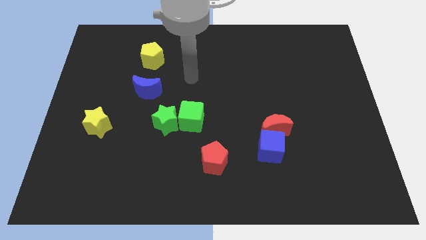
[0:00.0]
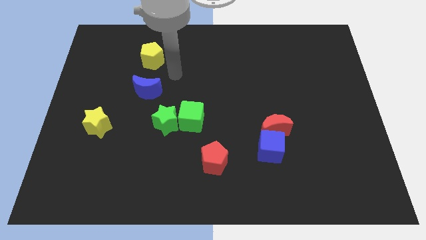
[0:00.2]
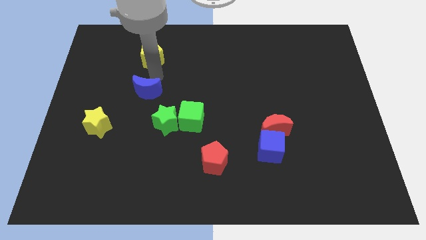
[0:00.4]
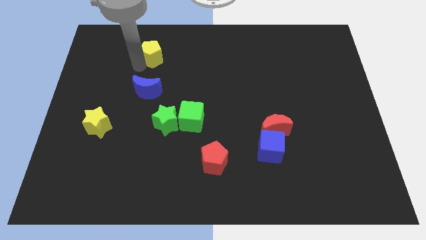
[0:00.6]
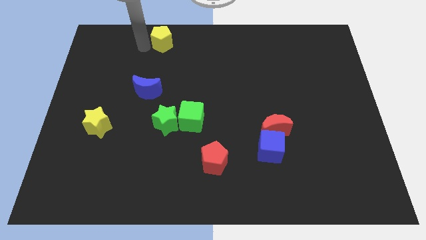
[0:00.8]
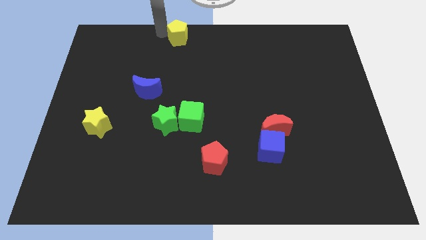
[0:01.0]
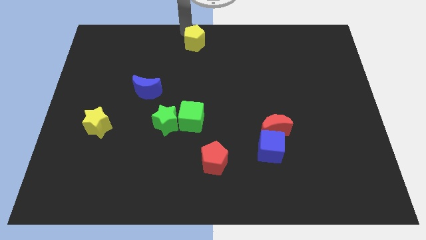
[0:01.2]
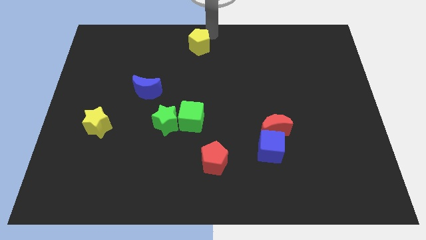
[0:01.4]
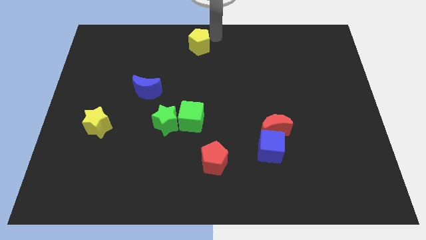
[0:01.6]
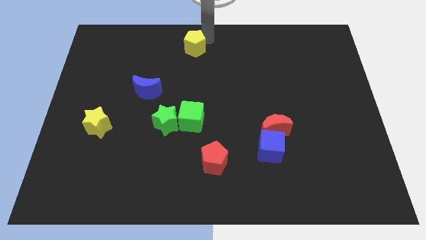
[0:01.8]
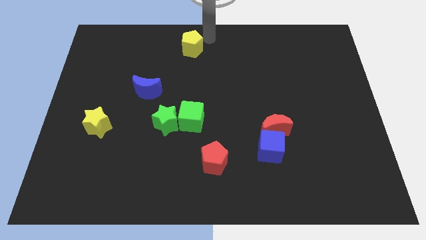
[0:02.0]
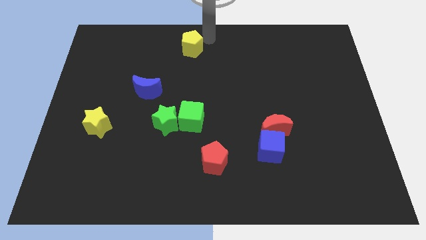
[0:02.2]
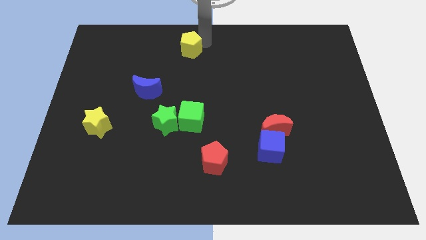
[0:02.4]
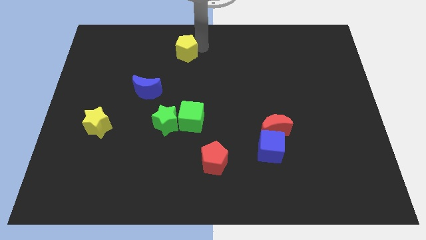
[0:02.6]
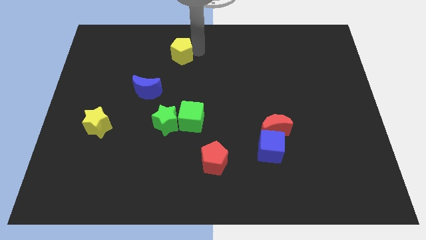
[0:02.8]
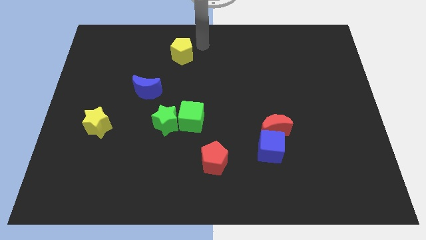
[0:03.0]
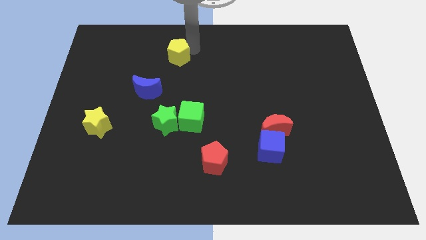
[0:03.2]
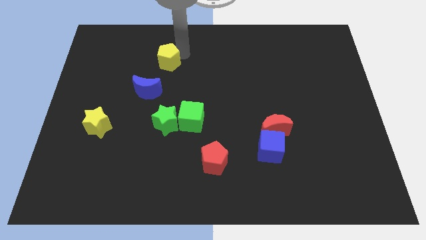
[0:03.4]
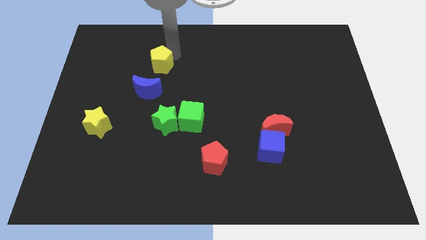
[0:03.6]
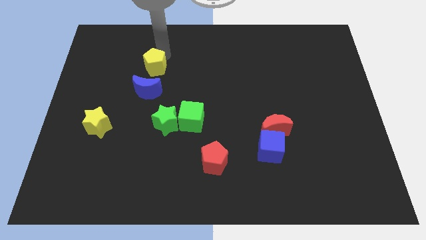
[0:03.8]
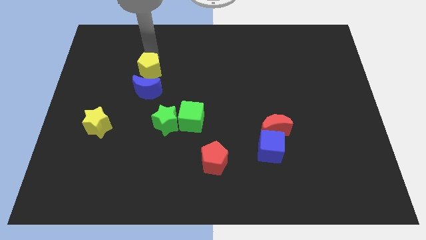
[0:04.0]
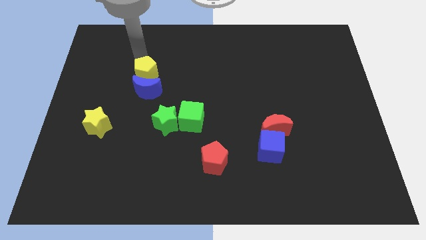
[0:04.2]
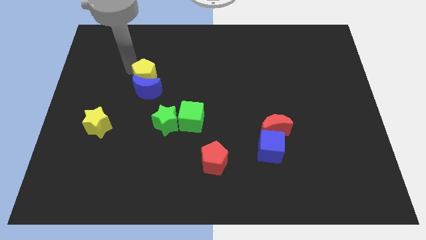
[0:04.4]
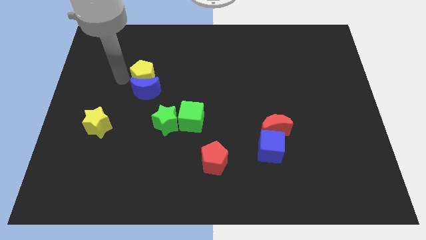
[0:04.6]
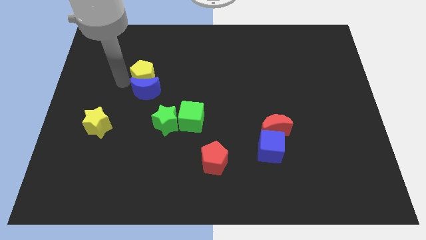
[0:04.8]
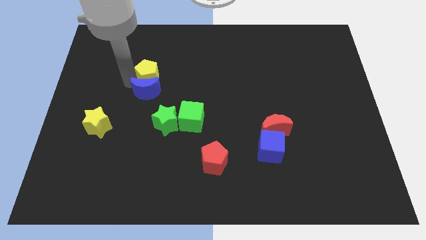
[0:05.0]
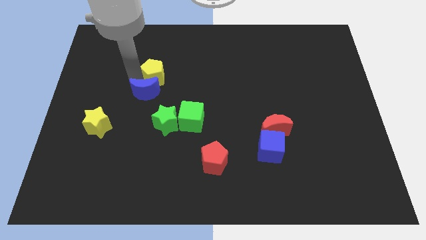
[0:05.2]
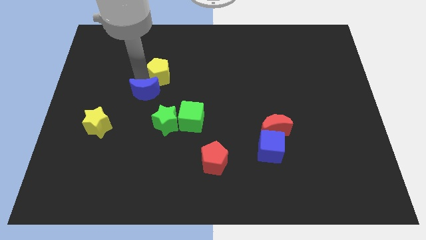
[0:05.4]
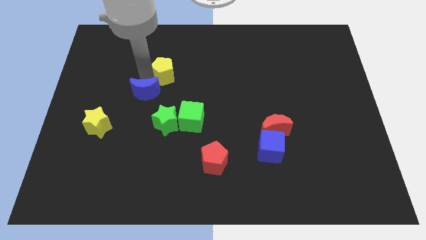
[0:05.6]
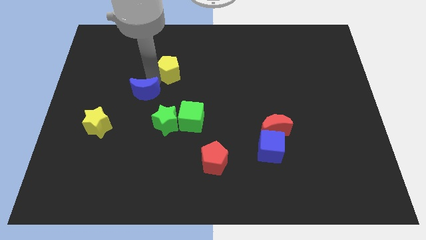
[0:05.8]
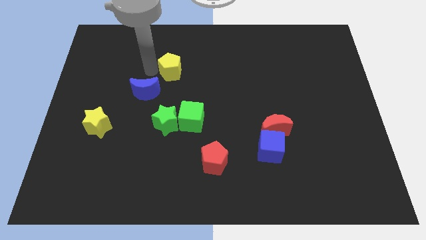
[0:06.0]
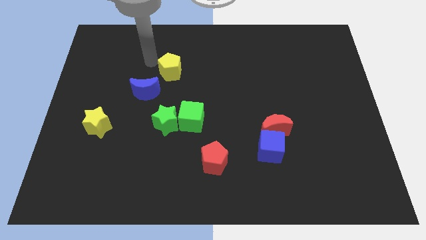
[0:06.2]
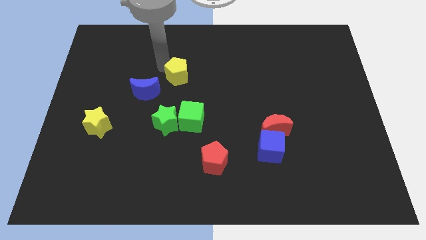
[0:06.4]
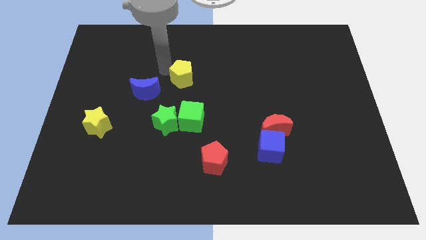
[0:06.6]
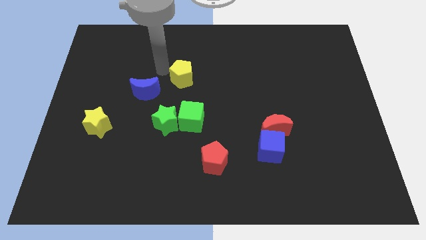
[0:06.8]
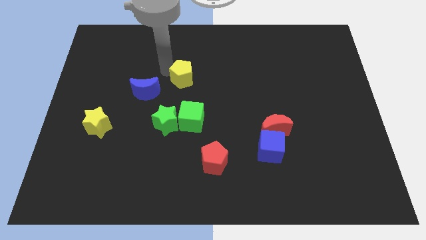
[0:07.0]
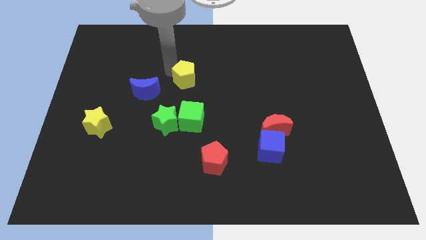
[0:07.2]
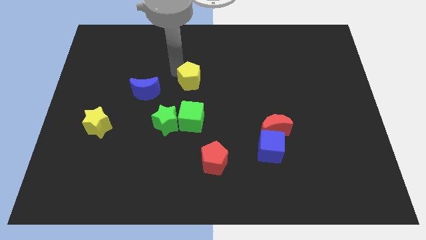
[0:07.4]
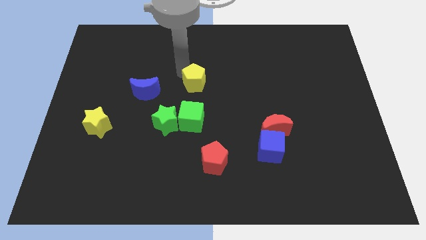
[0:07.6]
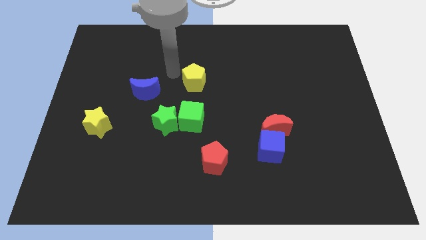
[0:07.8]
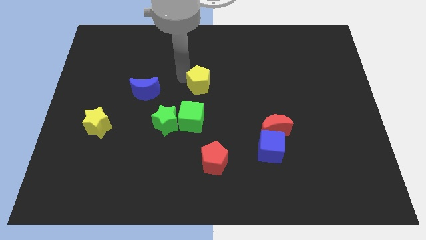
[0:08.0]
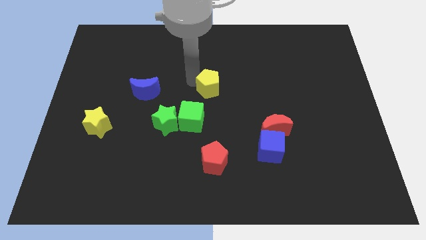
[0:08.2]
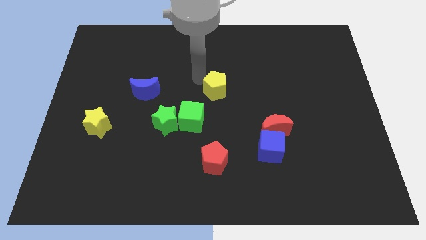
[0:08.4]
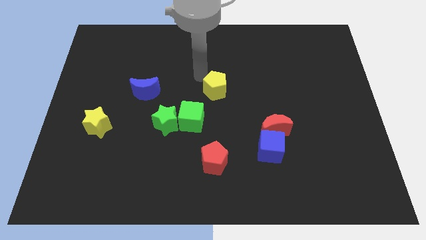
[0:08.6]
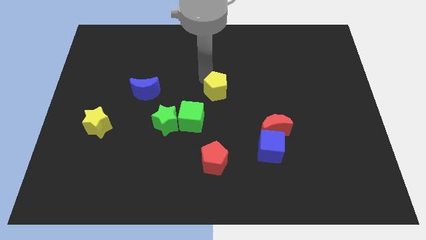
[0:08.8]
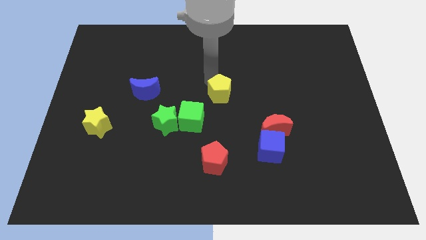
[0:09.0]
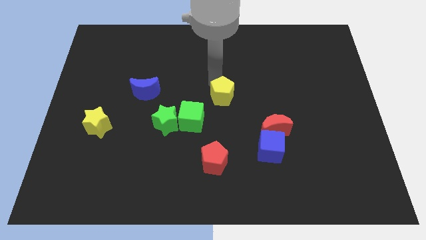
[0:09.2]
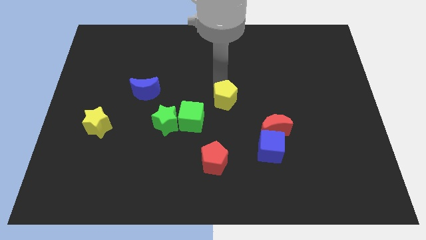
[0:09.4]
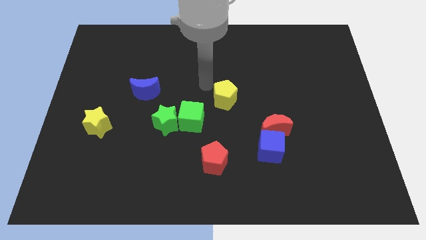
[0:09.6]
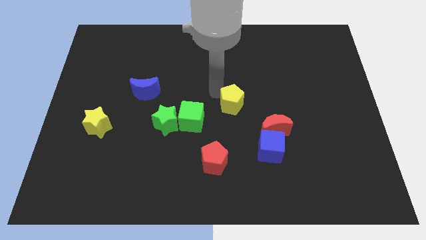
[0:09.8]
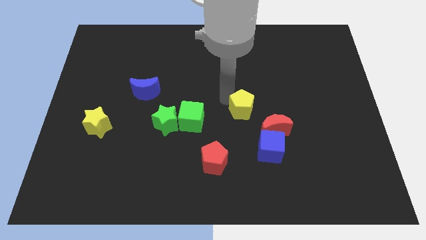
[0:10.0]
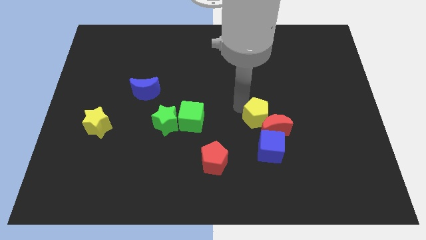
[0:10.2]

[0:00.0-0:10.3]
slide the yellow pentagon next to the red moon

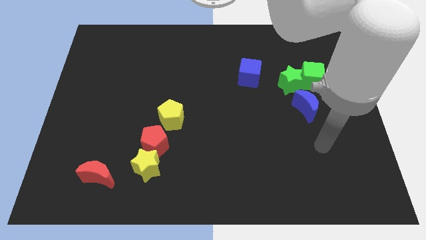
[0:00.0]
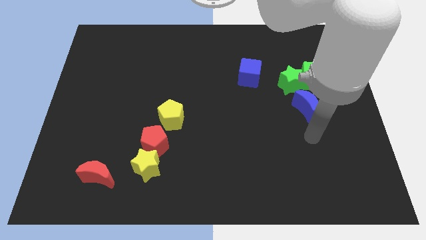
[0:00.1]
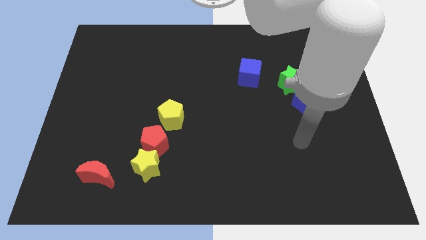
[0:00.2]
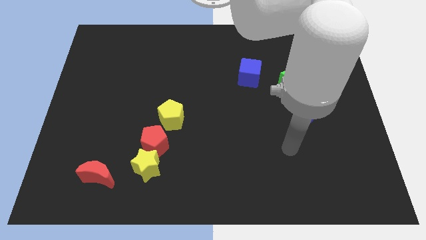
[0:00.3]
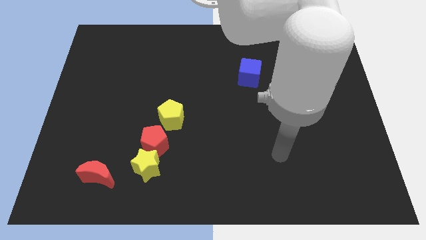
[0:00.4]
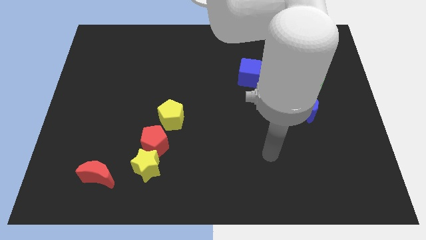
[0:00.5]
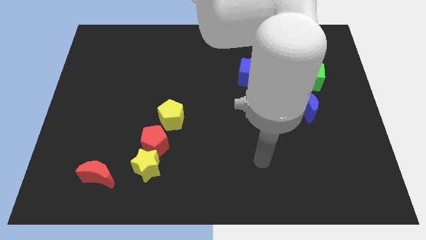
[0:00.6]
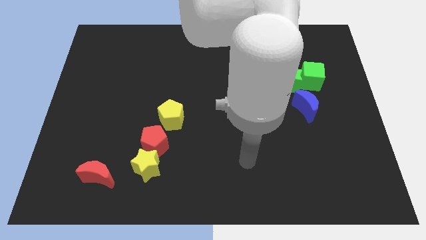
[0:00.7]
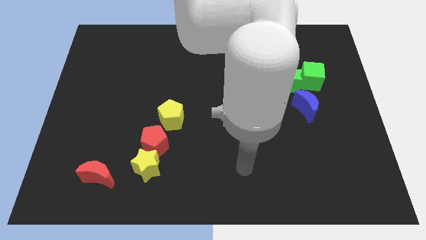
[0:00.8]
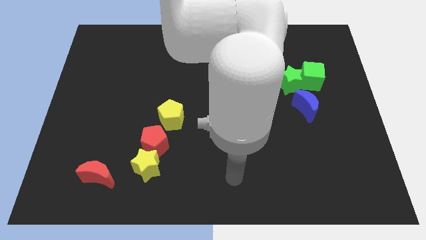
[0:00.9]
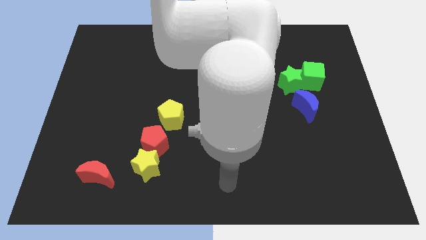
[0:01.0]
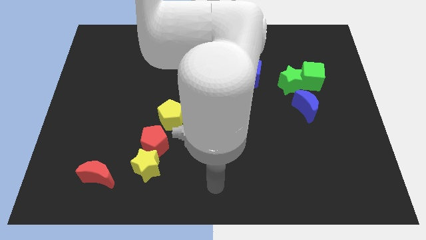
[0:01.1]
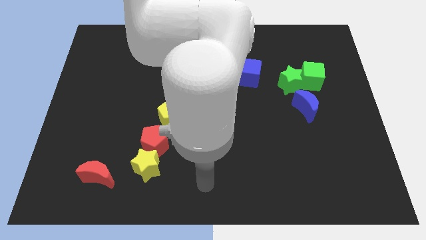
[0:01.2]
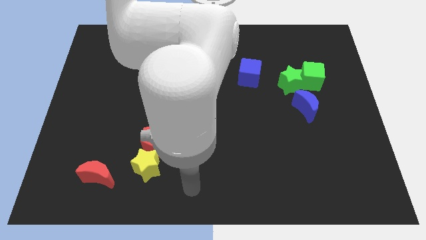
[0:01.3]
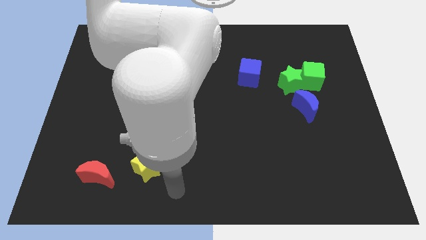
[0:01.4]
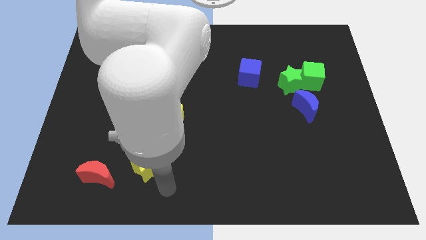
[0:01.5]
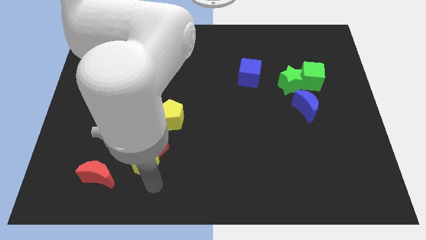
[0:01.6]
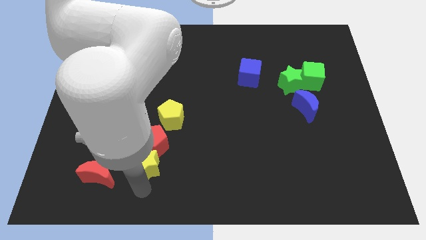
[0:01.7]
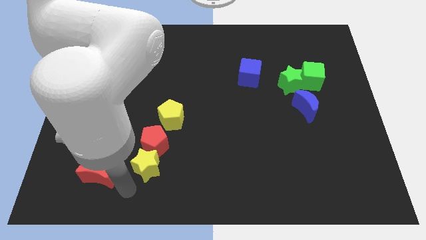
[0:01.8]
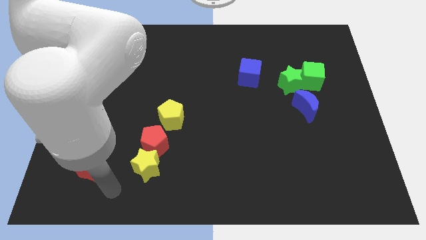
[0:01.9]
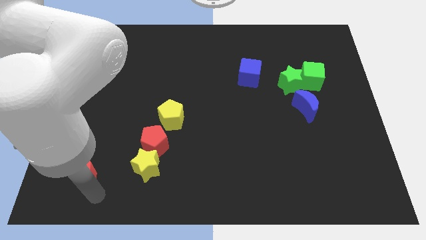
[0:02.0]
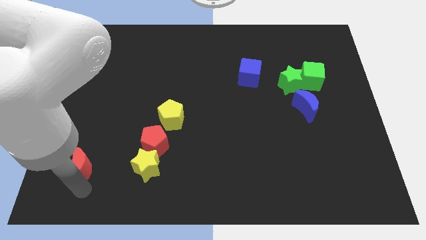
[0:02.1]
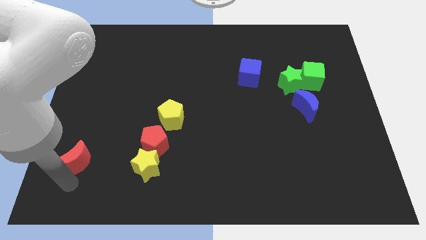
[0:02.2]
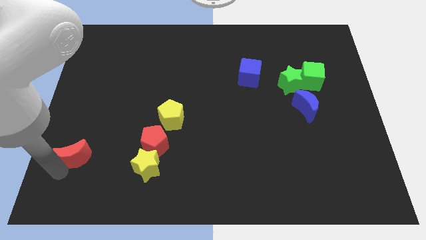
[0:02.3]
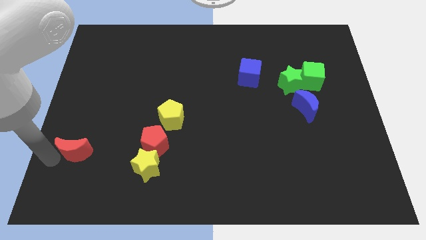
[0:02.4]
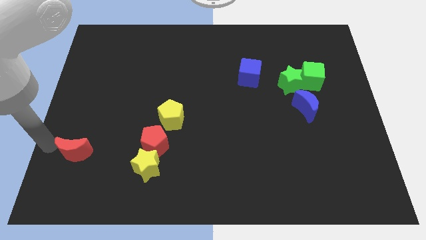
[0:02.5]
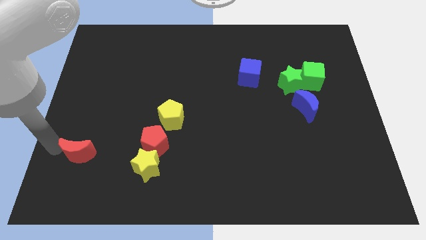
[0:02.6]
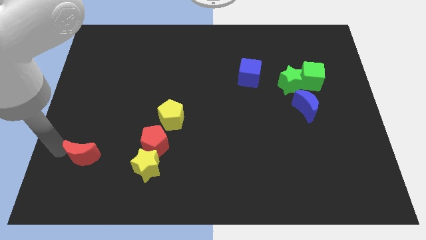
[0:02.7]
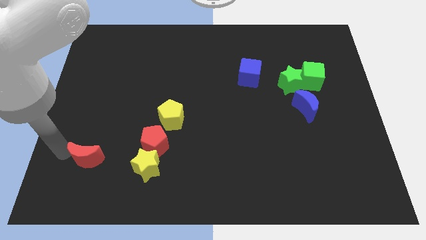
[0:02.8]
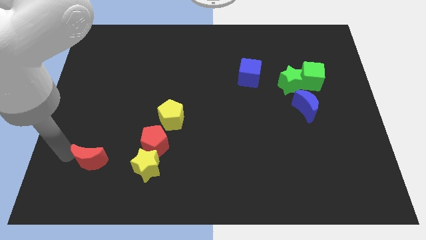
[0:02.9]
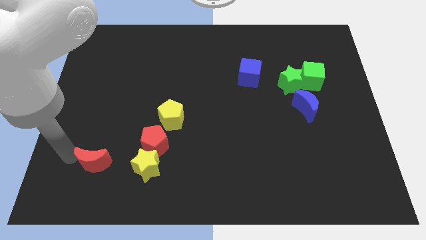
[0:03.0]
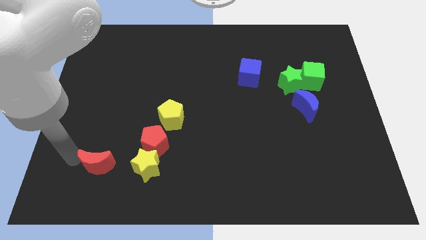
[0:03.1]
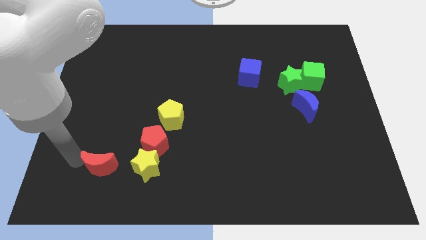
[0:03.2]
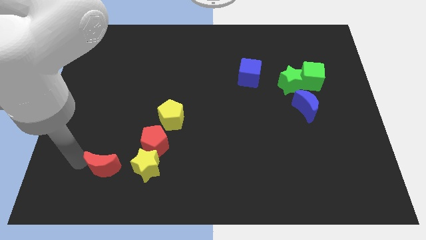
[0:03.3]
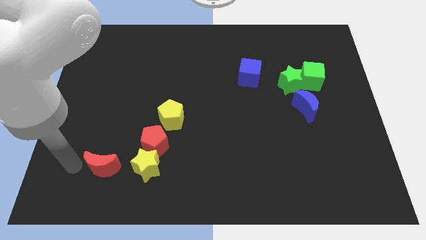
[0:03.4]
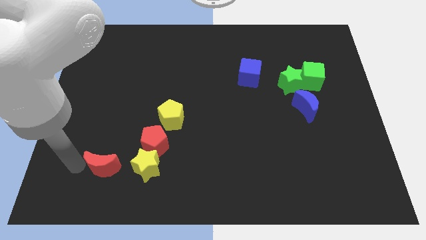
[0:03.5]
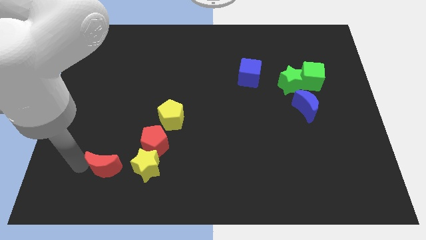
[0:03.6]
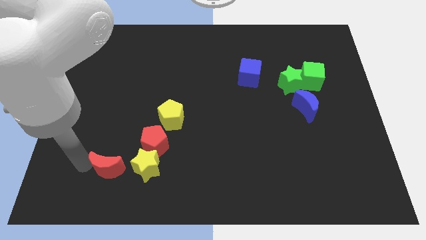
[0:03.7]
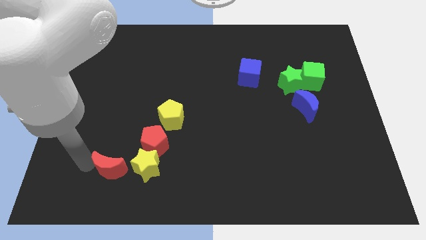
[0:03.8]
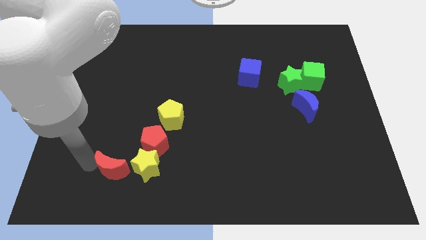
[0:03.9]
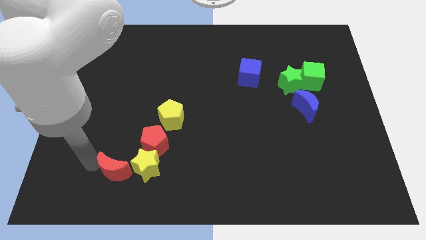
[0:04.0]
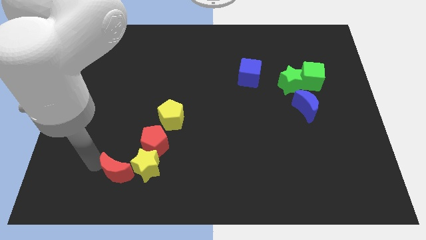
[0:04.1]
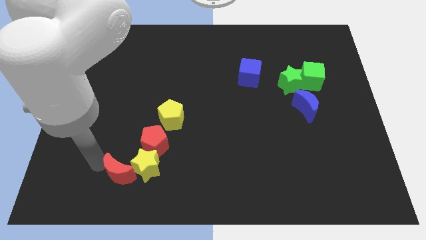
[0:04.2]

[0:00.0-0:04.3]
put the red moon next to the yellow star
